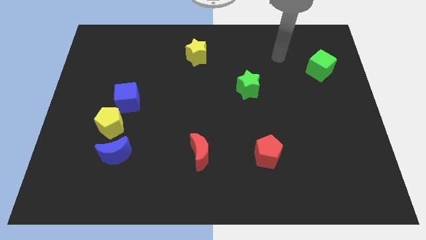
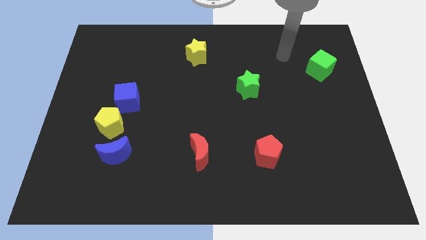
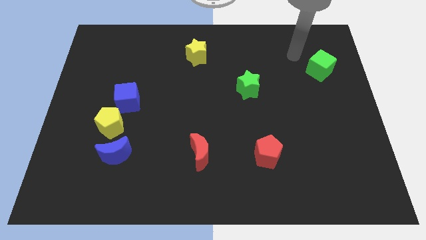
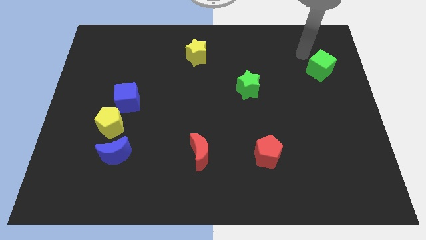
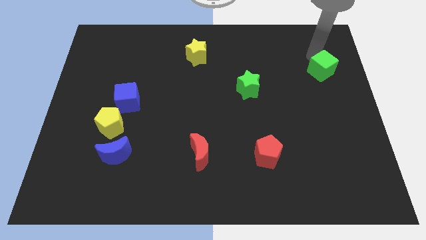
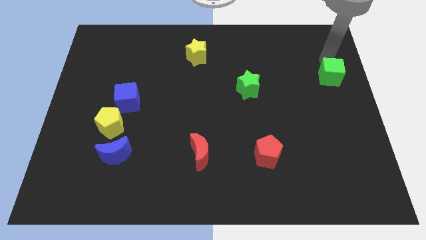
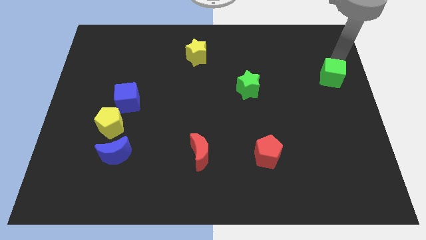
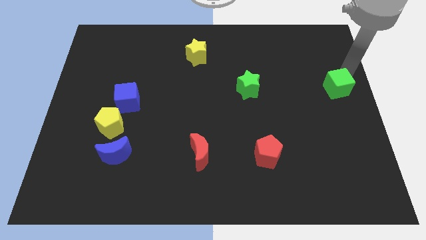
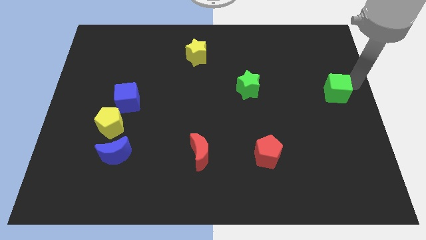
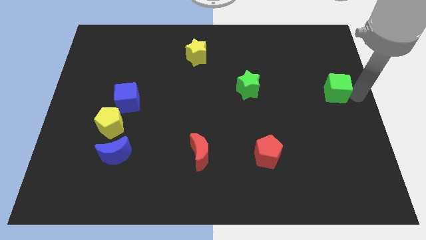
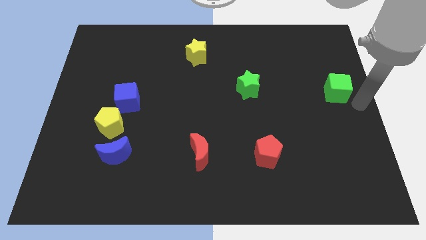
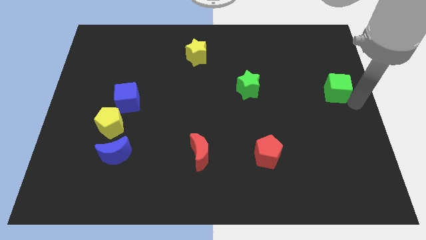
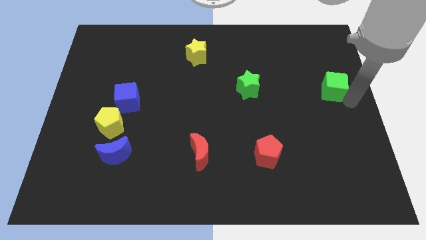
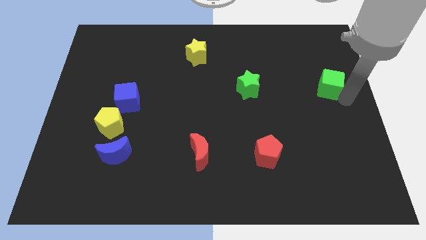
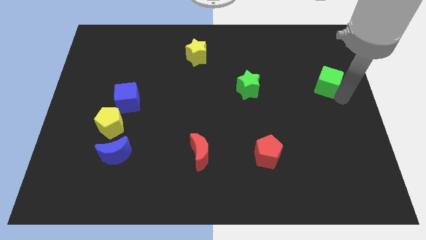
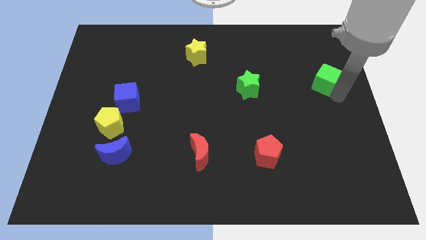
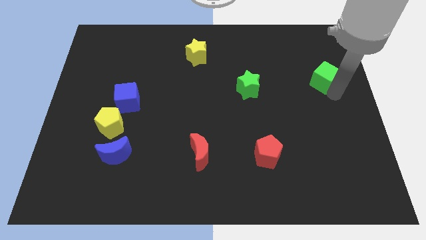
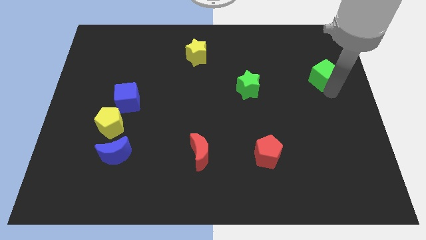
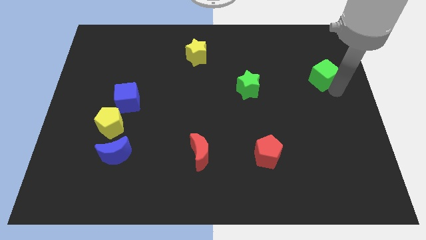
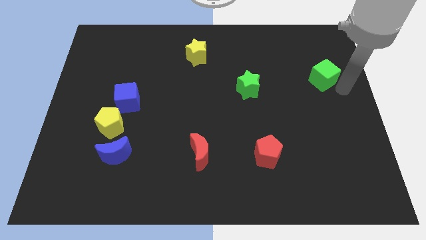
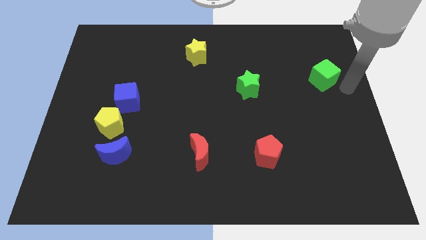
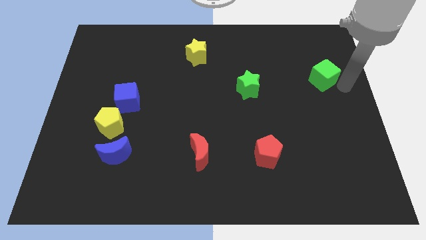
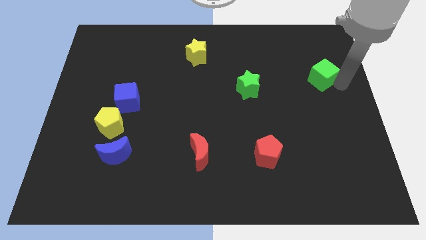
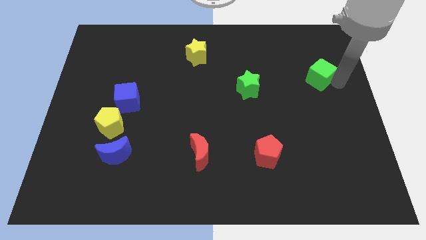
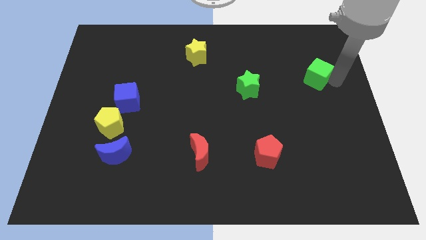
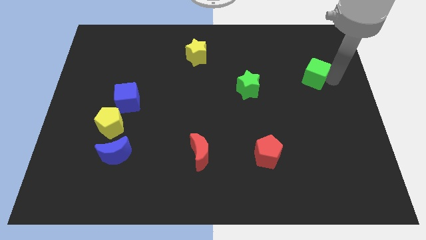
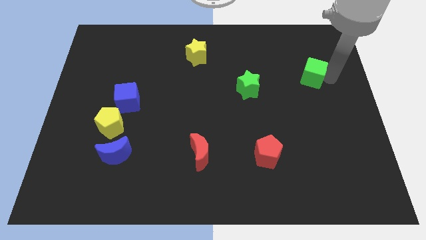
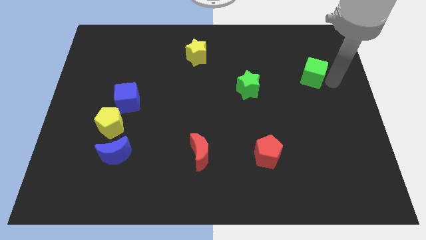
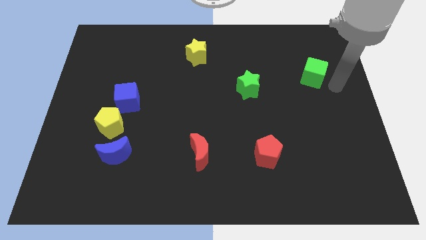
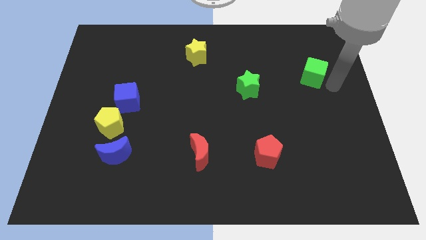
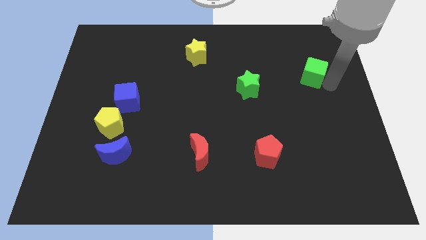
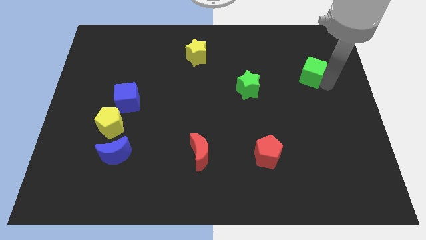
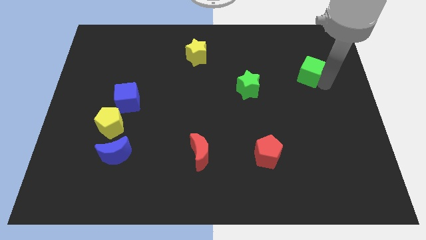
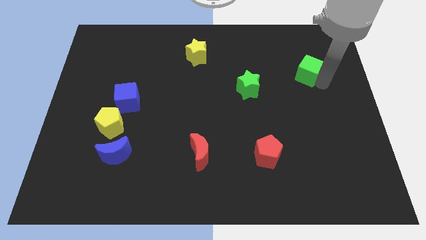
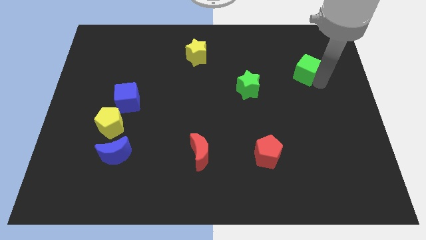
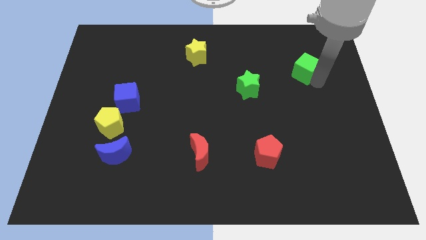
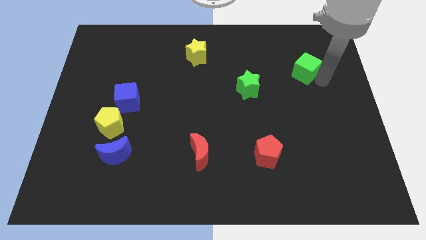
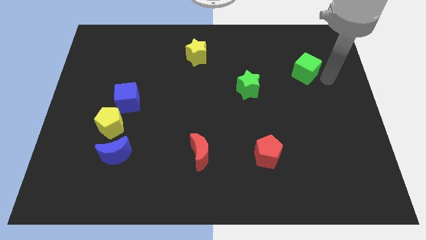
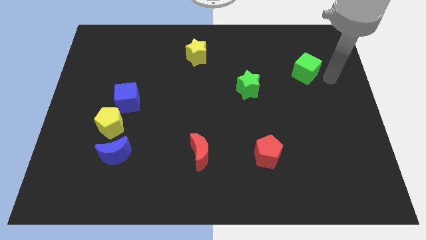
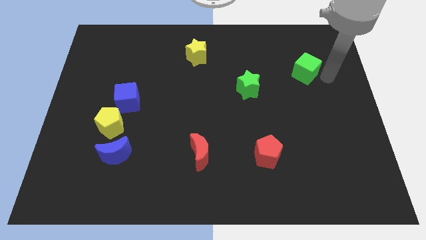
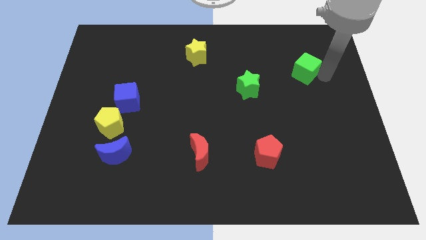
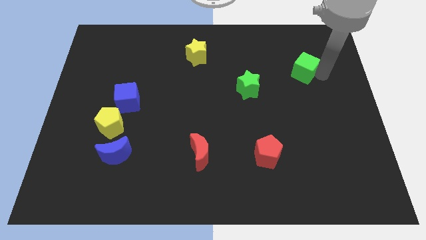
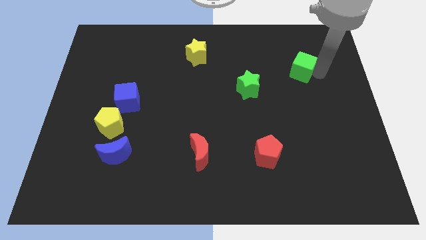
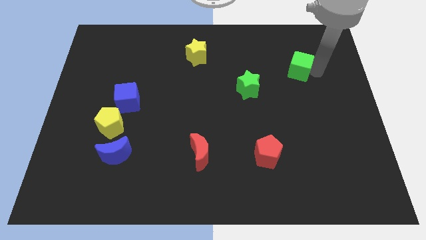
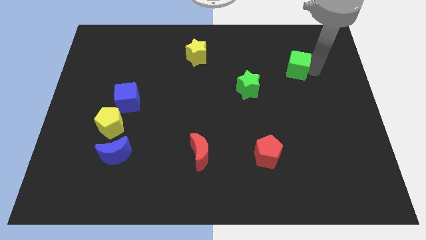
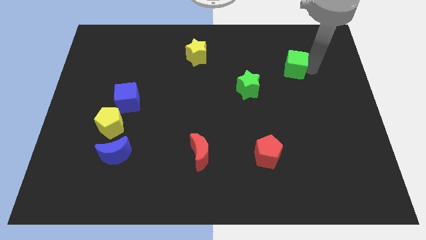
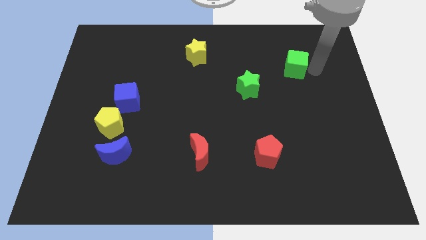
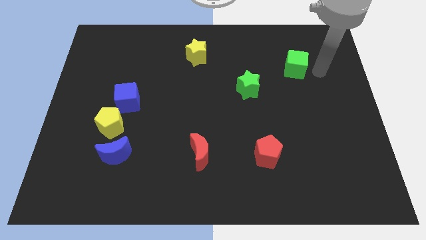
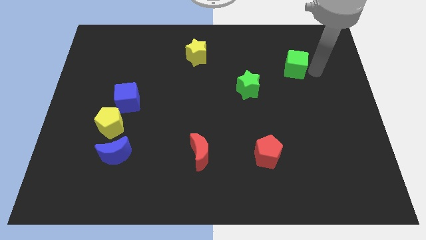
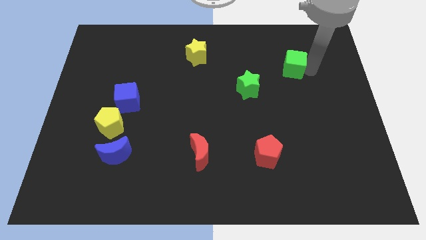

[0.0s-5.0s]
slightly move the green cube to the left

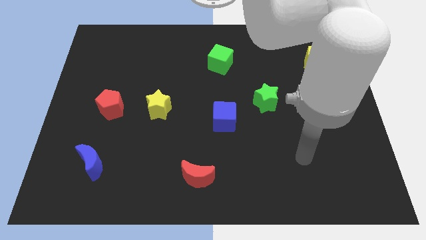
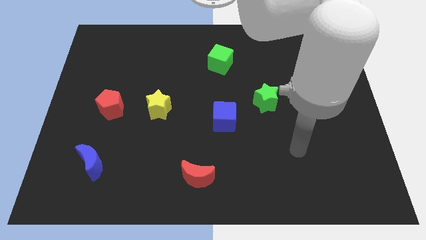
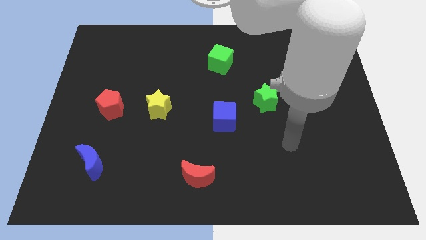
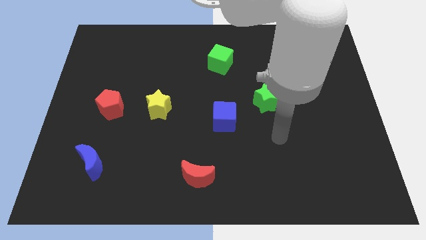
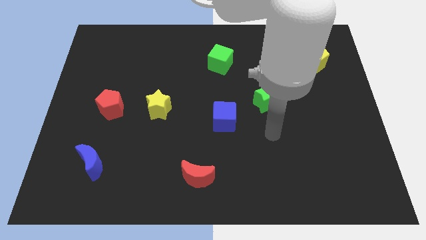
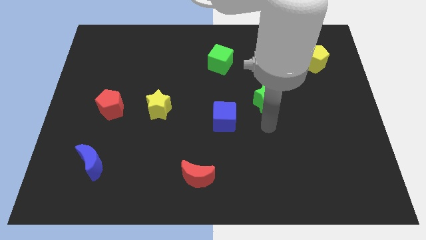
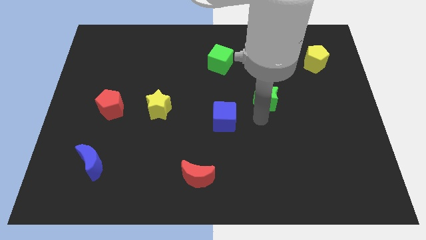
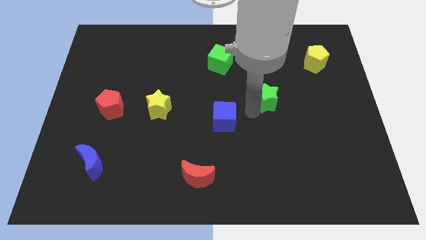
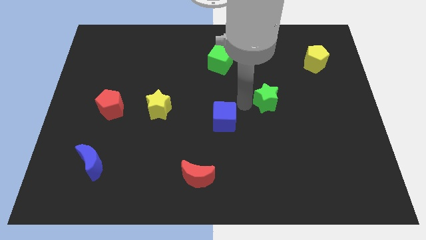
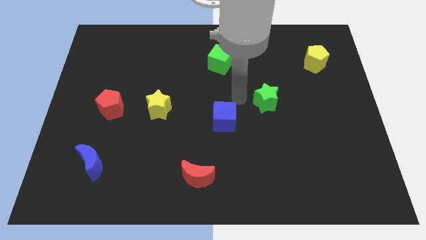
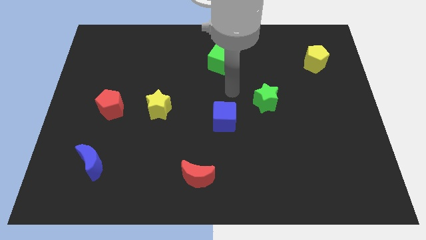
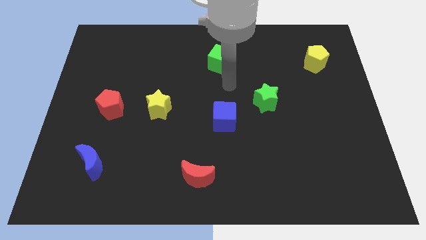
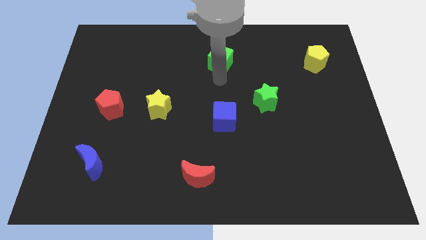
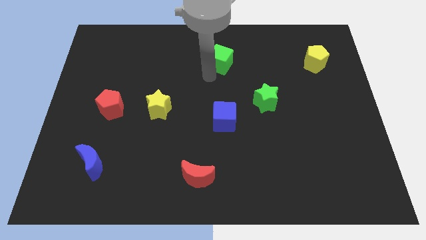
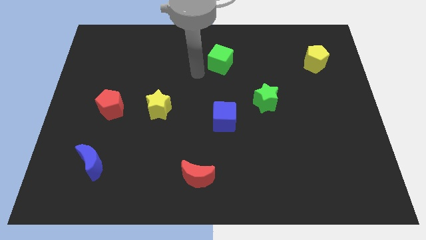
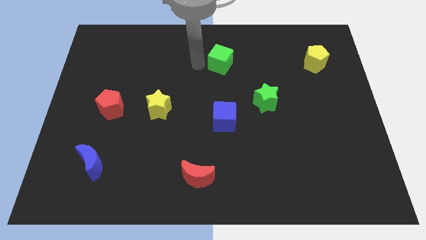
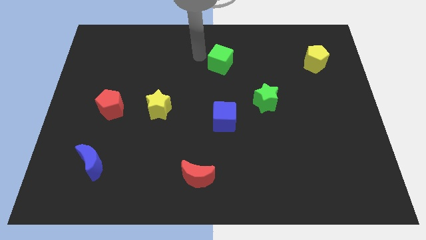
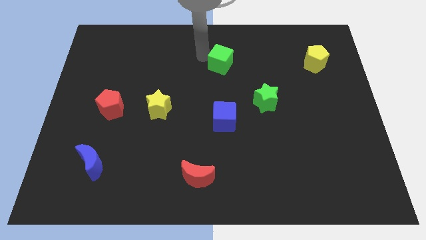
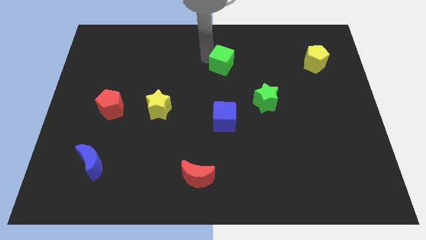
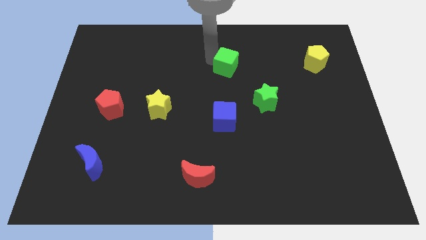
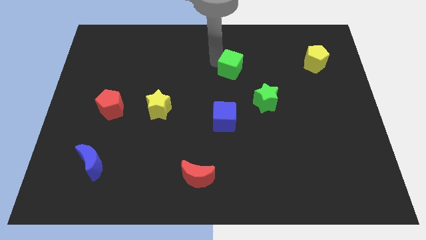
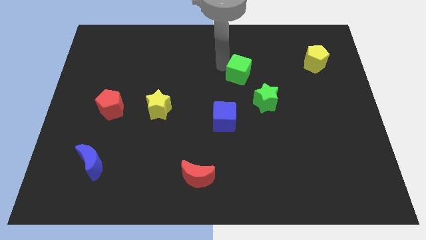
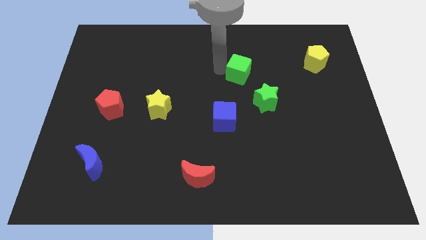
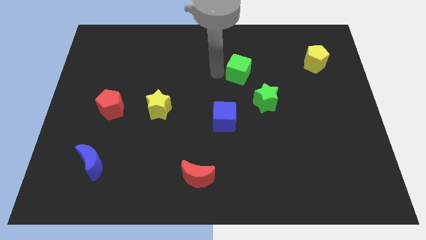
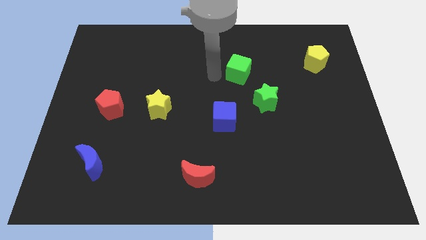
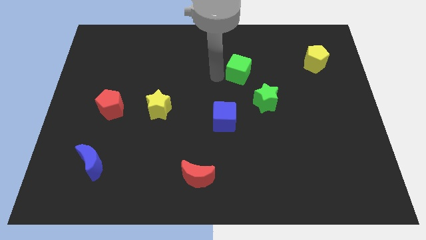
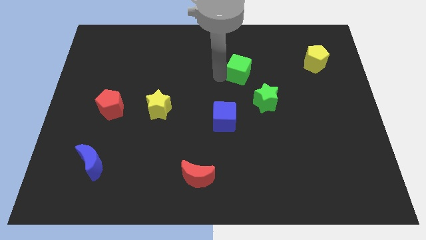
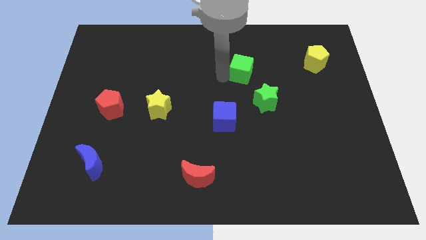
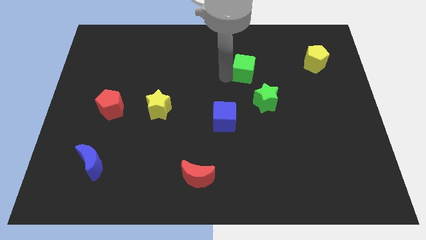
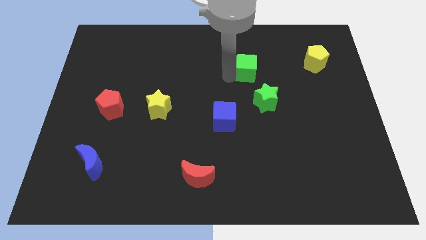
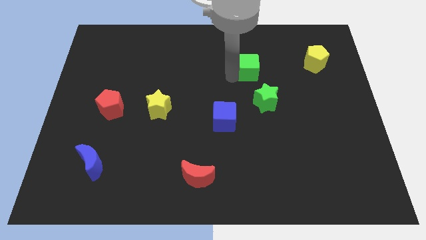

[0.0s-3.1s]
slide the green cube somewhat to the right

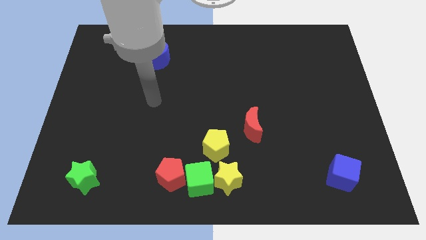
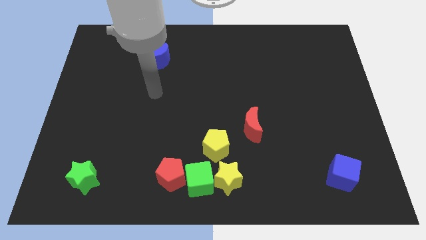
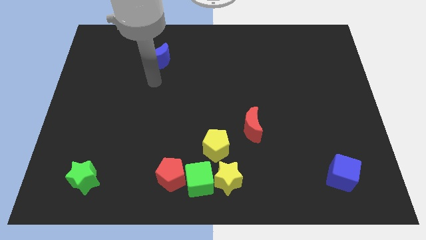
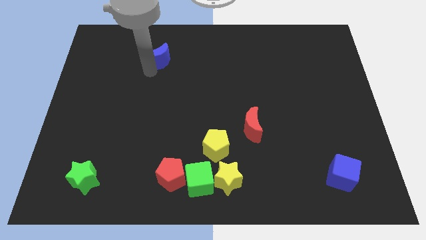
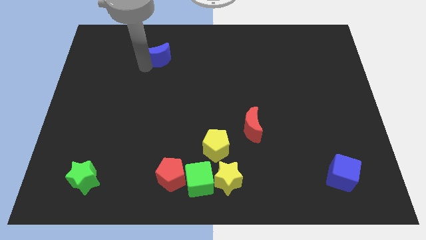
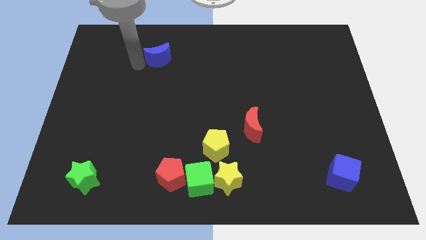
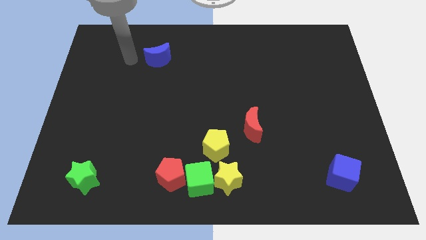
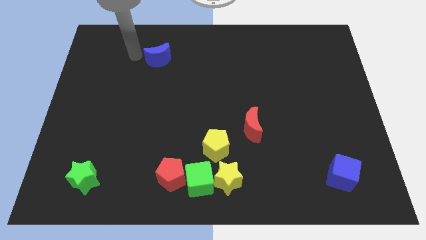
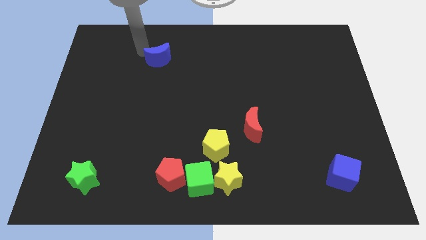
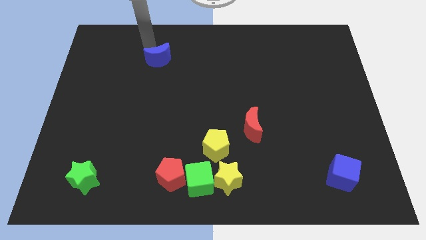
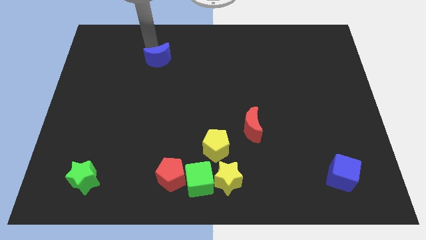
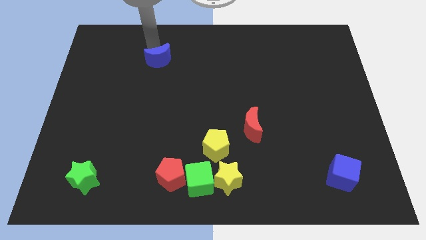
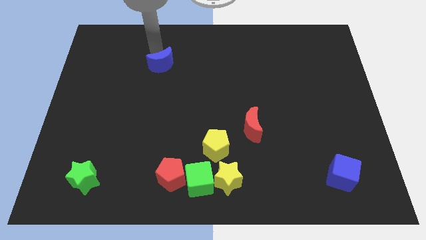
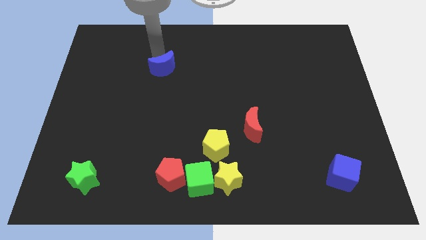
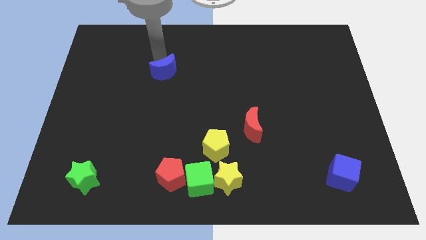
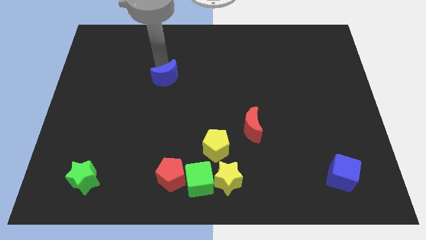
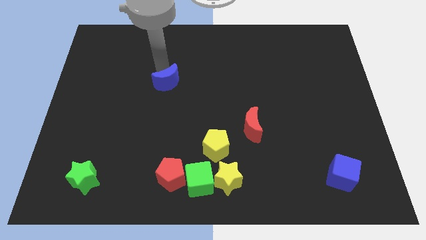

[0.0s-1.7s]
move the blue moon slightly downwards and right diagonally
